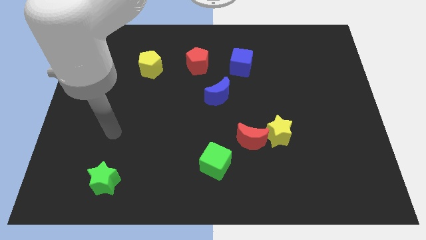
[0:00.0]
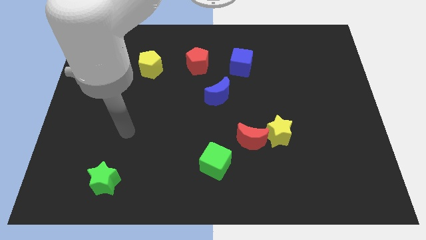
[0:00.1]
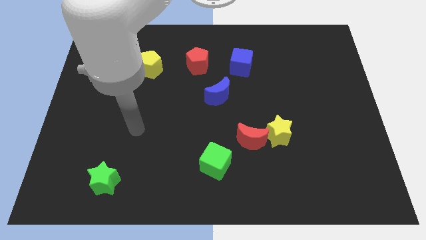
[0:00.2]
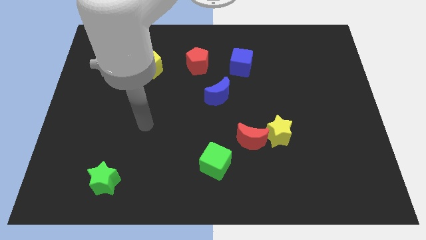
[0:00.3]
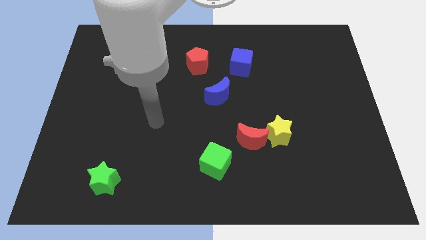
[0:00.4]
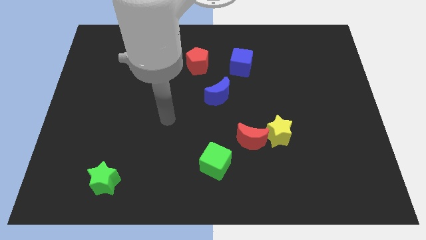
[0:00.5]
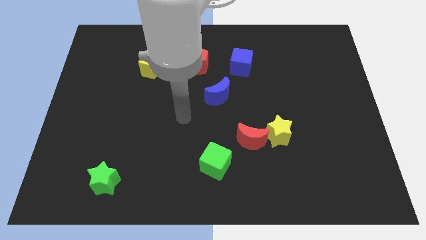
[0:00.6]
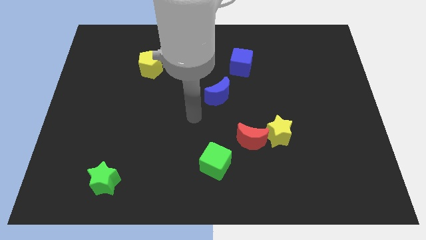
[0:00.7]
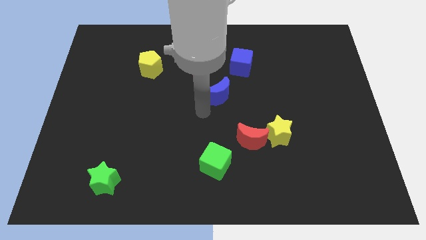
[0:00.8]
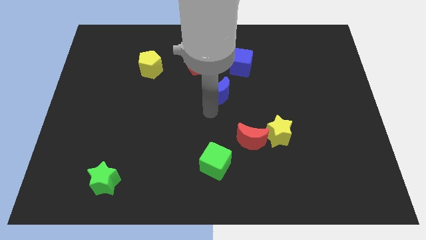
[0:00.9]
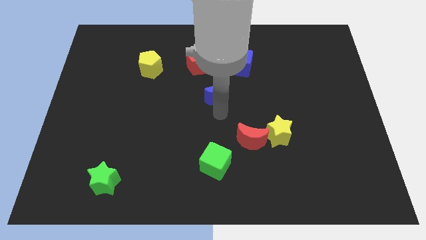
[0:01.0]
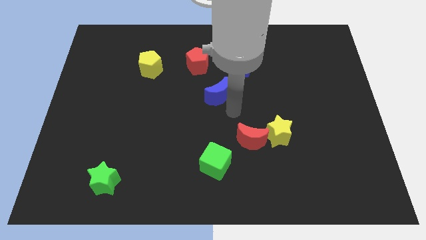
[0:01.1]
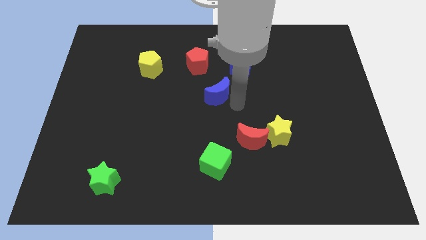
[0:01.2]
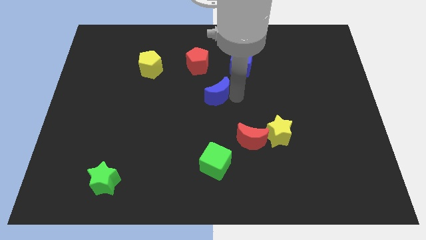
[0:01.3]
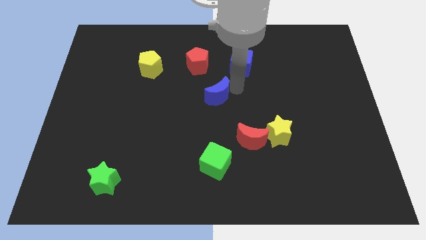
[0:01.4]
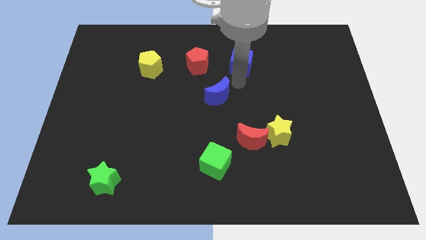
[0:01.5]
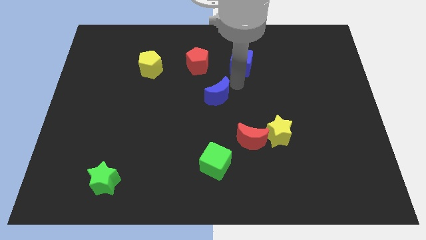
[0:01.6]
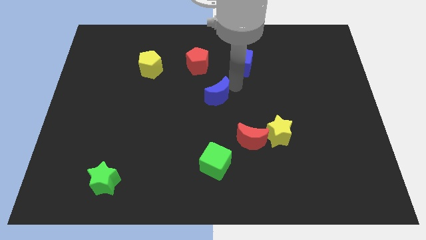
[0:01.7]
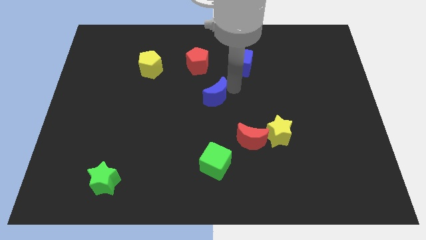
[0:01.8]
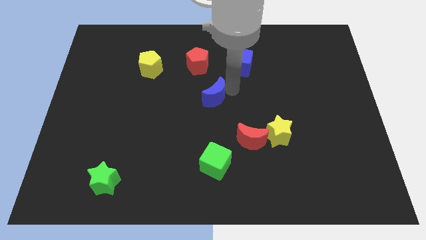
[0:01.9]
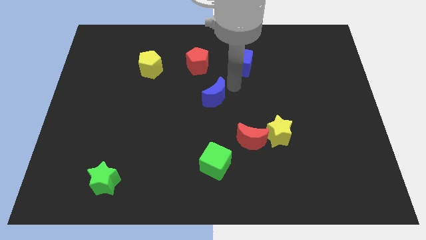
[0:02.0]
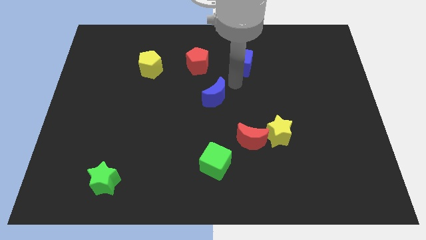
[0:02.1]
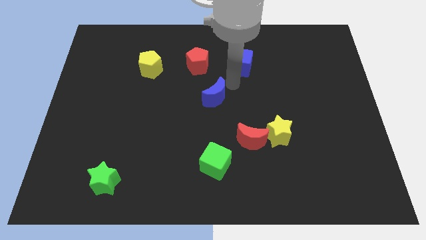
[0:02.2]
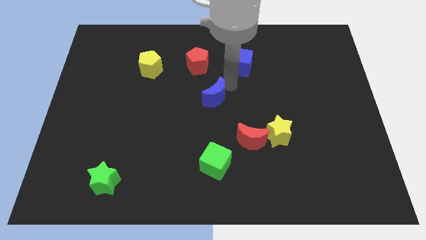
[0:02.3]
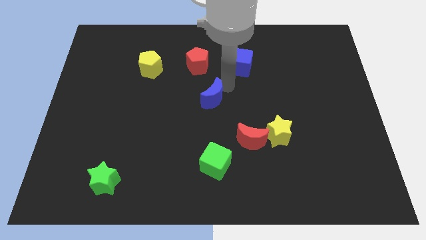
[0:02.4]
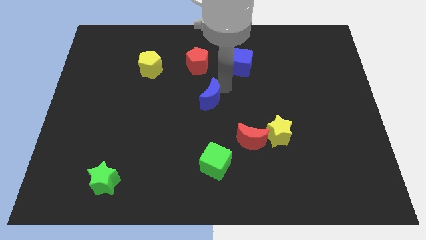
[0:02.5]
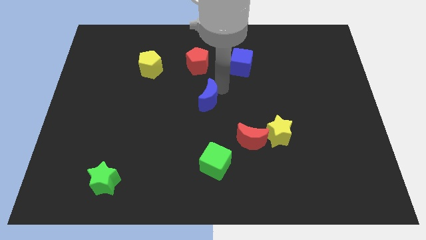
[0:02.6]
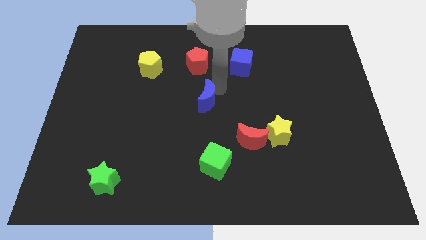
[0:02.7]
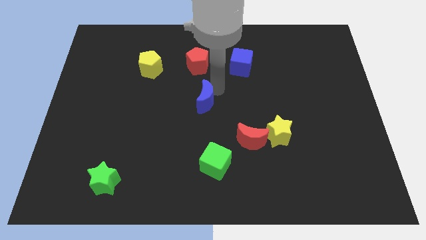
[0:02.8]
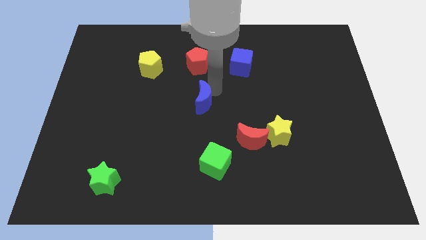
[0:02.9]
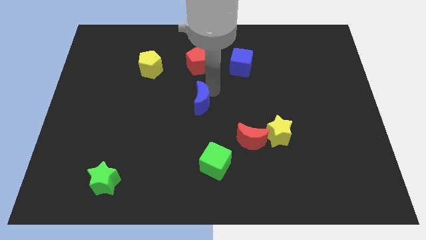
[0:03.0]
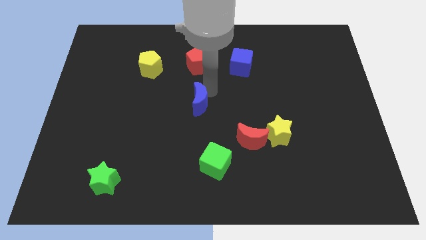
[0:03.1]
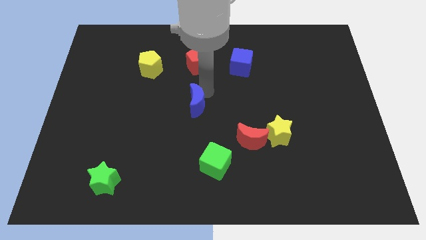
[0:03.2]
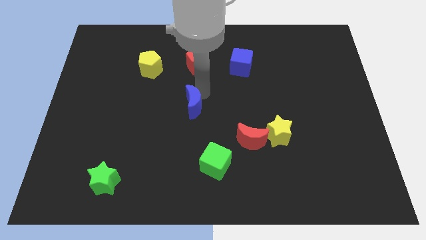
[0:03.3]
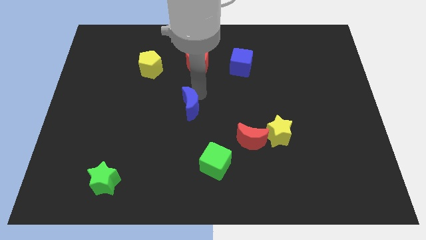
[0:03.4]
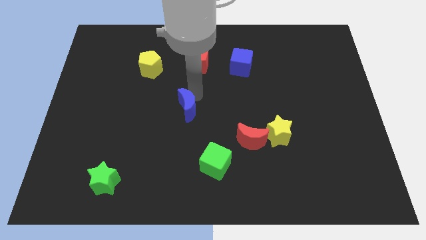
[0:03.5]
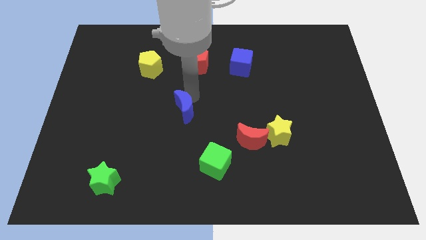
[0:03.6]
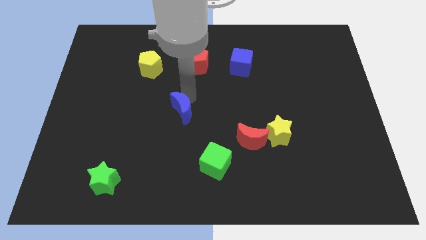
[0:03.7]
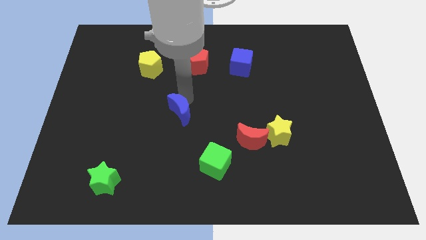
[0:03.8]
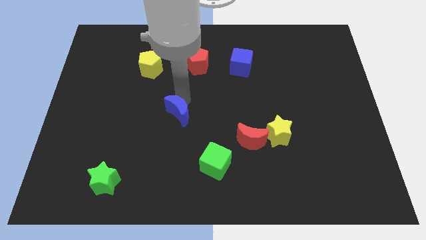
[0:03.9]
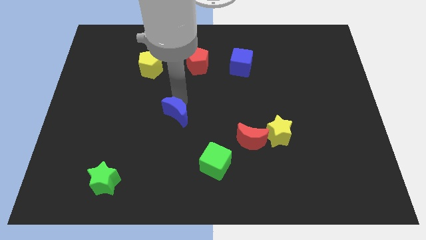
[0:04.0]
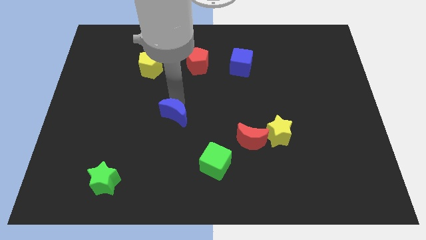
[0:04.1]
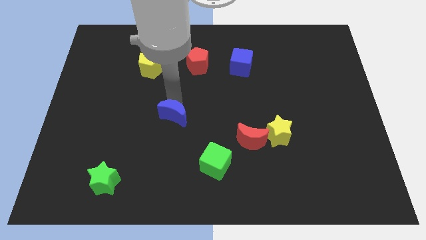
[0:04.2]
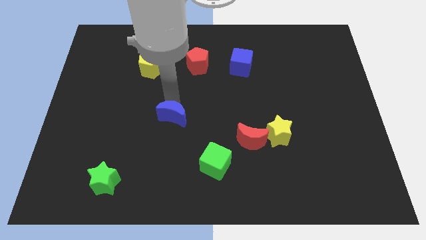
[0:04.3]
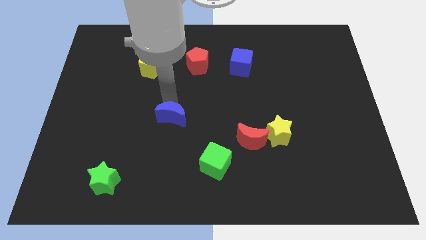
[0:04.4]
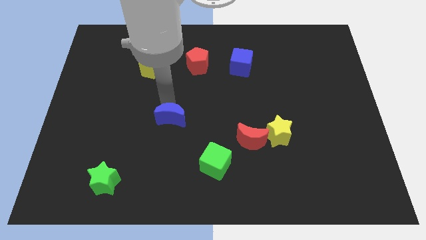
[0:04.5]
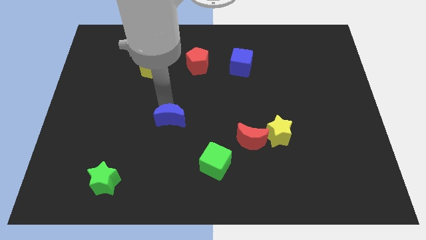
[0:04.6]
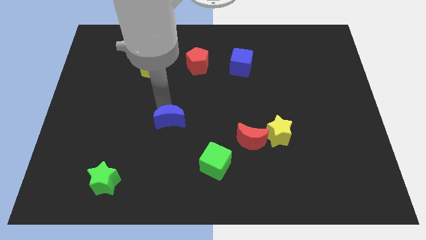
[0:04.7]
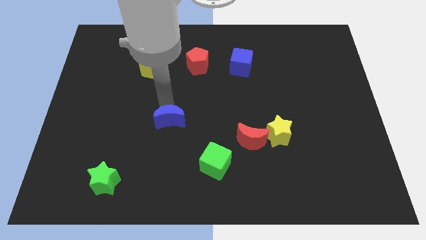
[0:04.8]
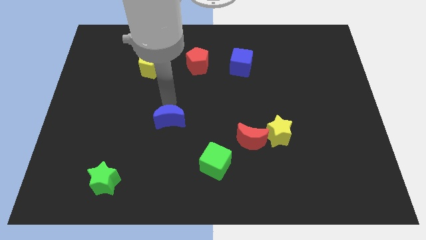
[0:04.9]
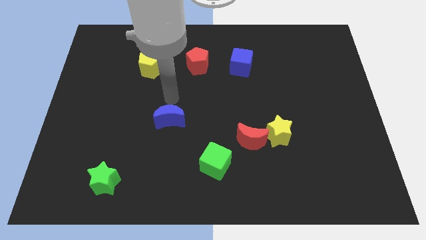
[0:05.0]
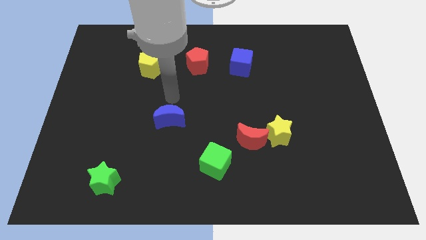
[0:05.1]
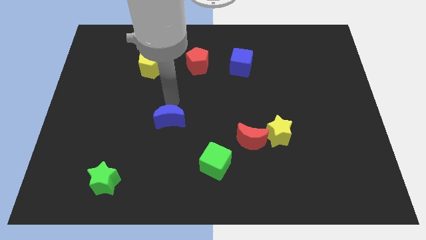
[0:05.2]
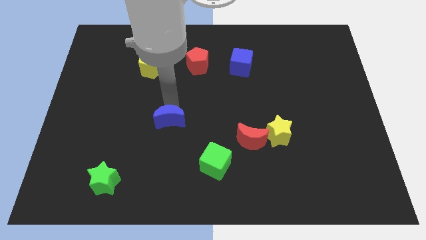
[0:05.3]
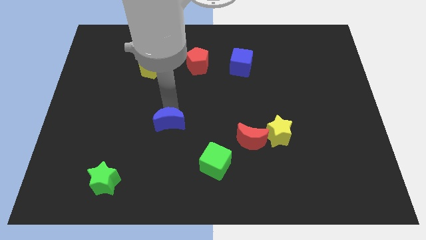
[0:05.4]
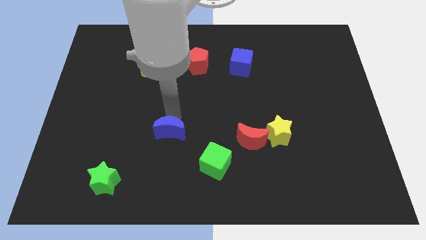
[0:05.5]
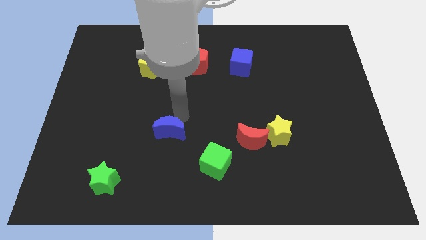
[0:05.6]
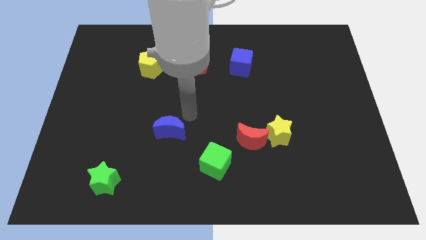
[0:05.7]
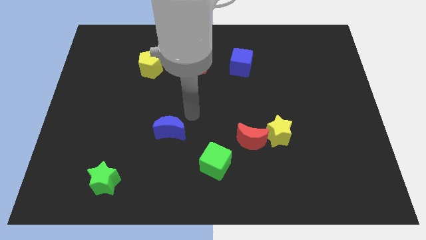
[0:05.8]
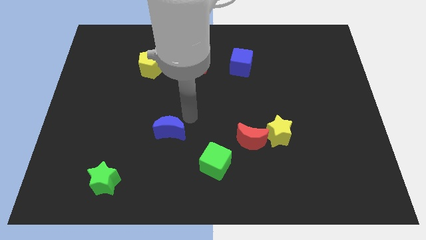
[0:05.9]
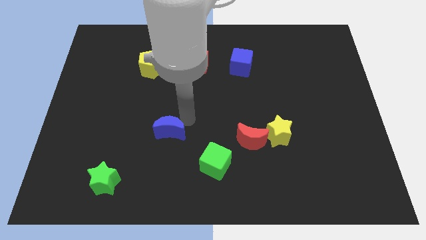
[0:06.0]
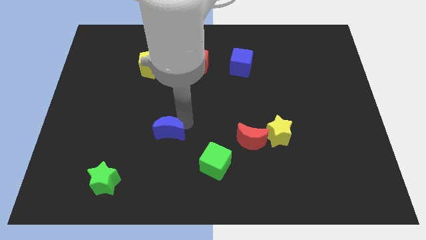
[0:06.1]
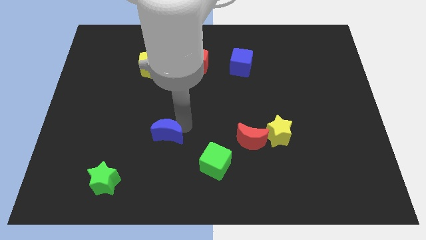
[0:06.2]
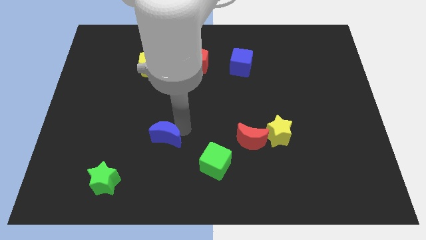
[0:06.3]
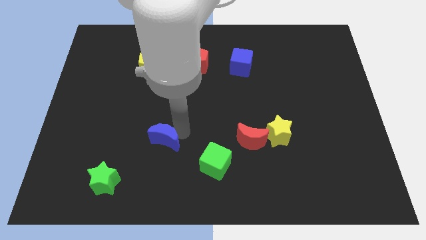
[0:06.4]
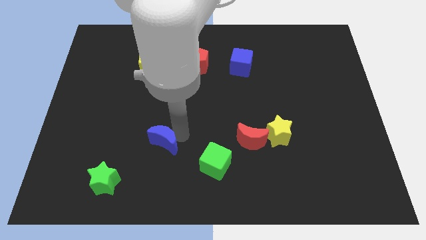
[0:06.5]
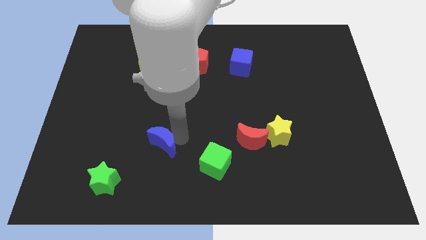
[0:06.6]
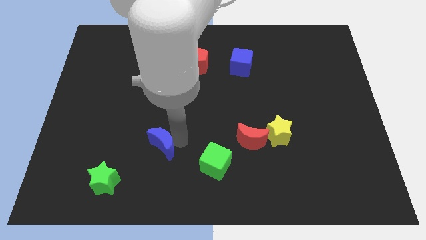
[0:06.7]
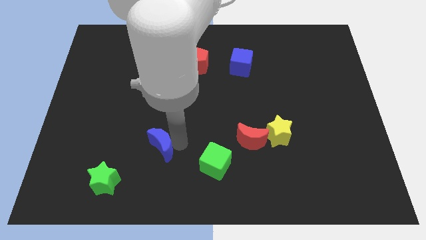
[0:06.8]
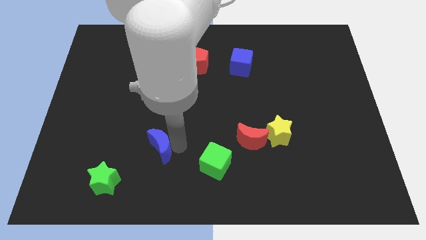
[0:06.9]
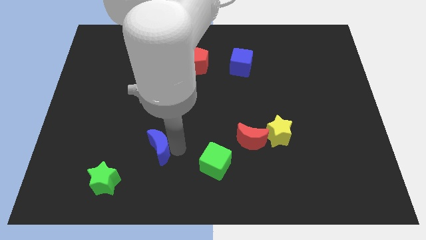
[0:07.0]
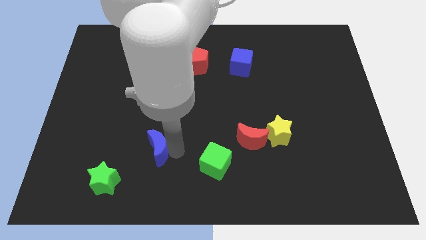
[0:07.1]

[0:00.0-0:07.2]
put the blue moon to the top right of the green star
